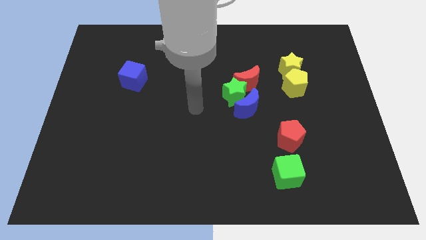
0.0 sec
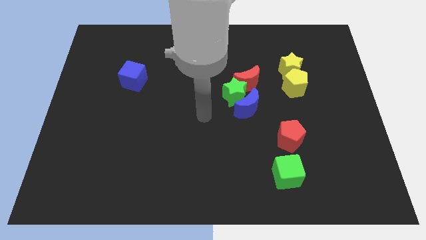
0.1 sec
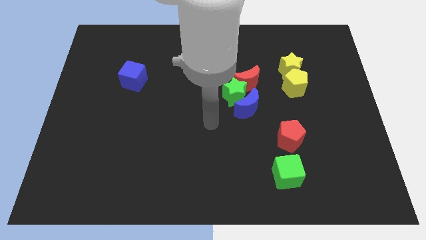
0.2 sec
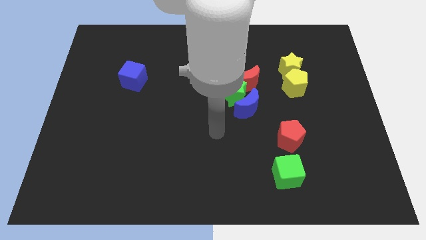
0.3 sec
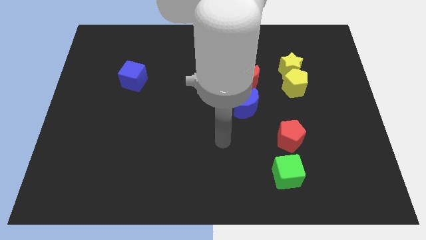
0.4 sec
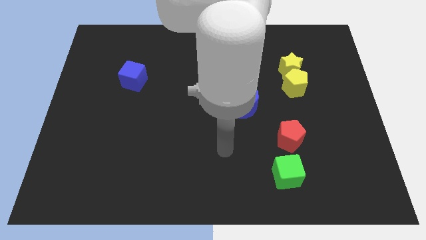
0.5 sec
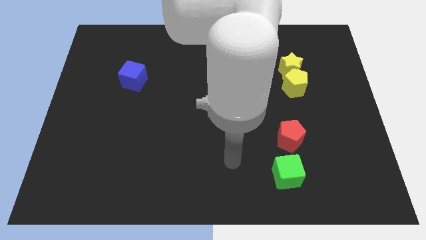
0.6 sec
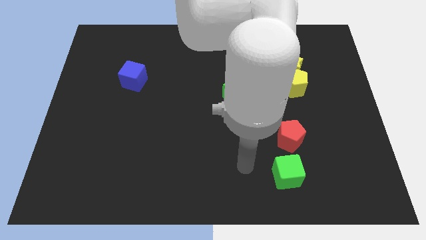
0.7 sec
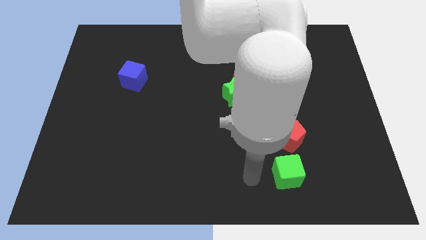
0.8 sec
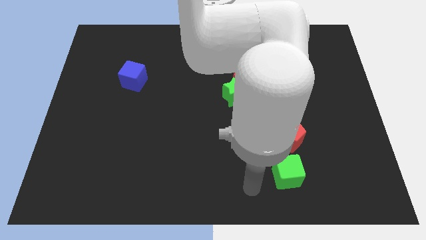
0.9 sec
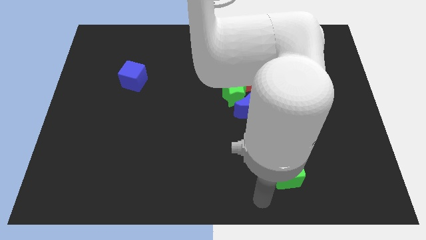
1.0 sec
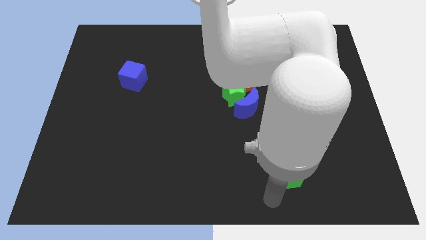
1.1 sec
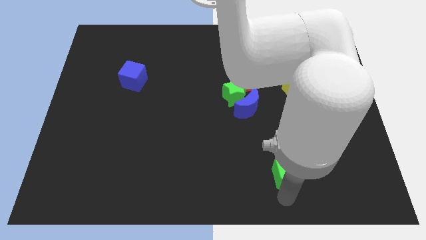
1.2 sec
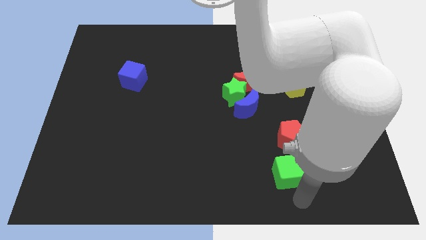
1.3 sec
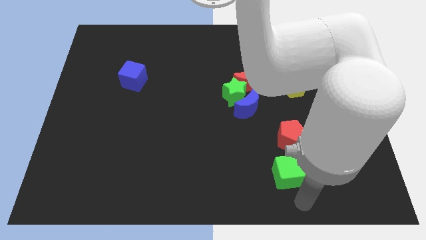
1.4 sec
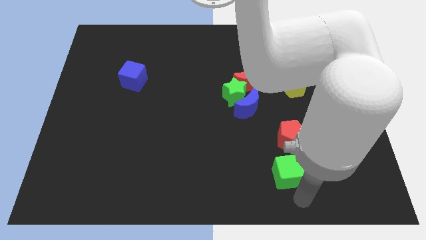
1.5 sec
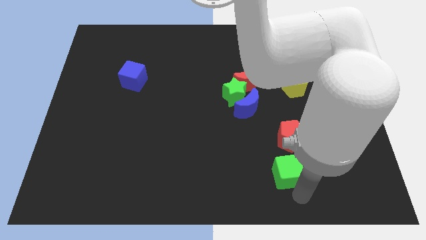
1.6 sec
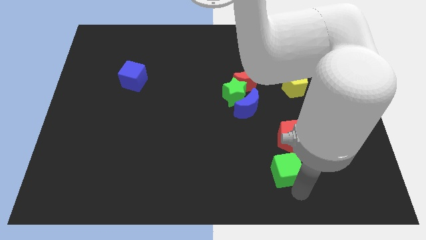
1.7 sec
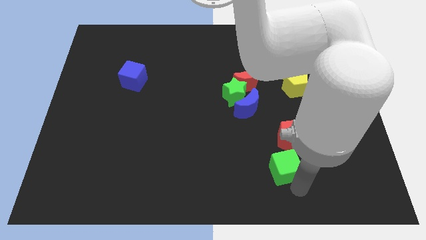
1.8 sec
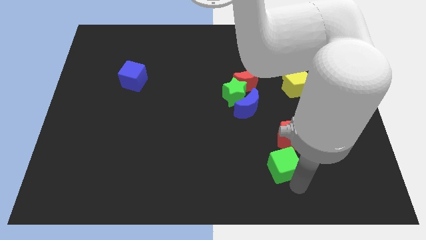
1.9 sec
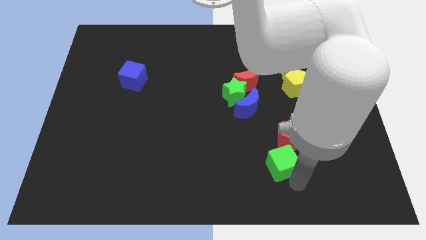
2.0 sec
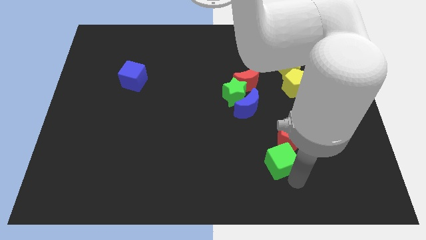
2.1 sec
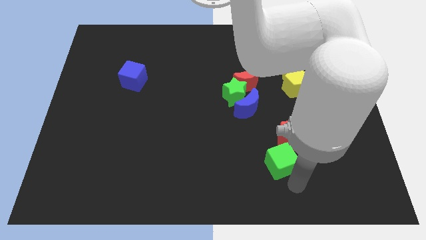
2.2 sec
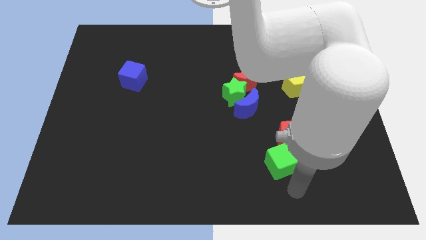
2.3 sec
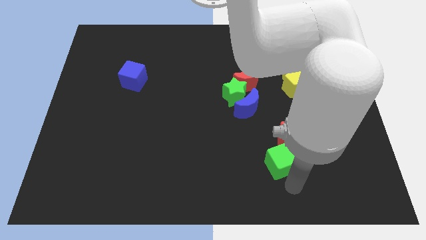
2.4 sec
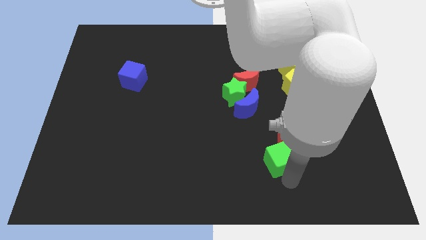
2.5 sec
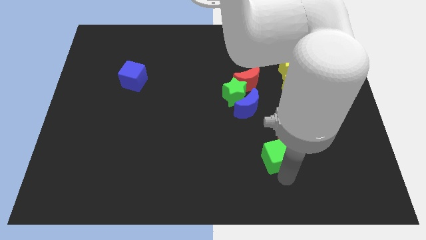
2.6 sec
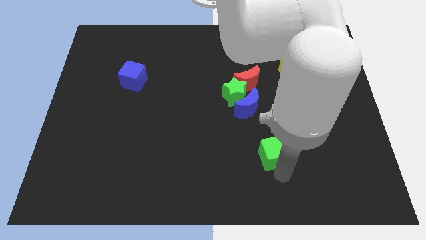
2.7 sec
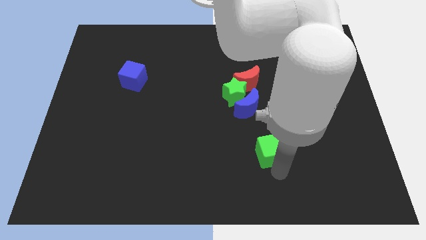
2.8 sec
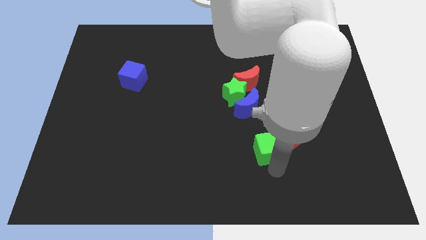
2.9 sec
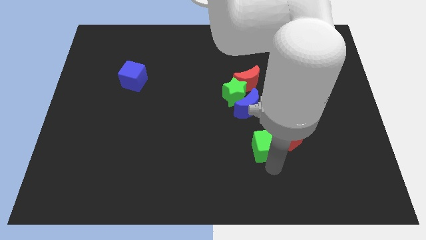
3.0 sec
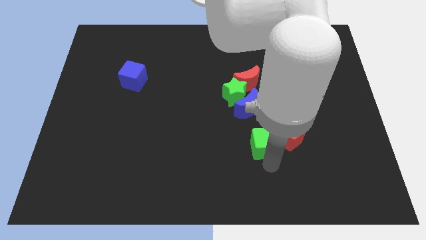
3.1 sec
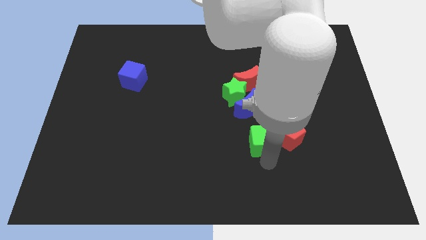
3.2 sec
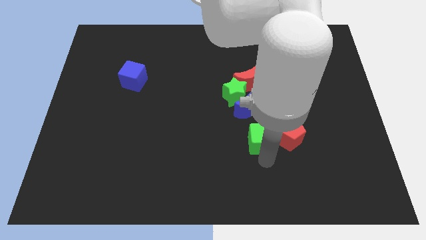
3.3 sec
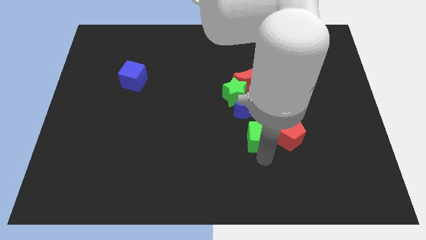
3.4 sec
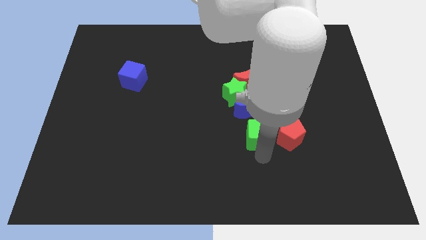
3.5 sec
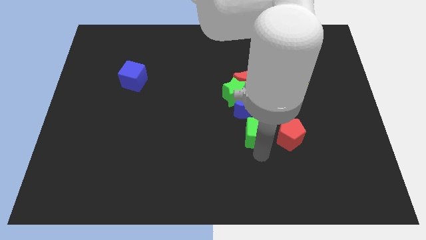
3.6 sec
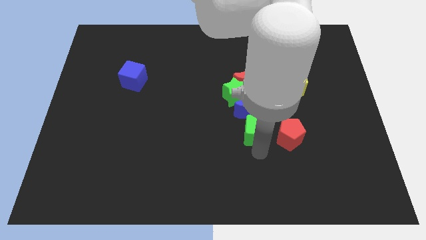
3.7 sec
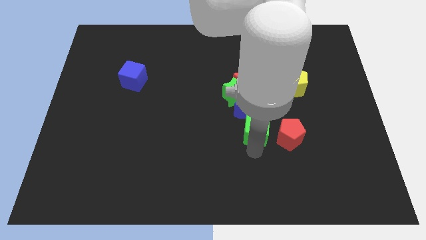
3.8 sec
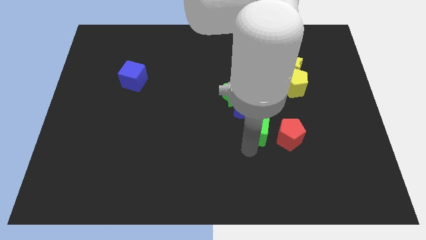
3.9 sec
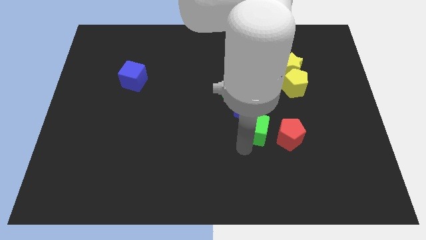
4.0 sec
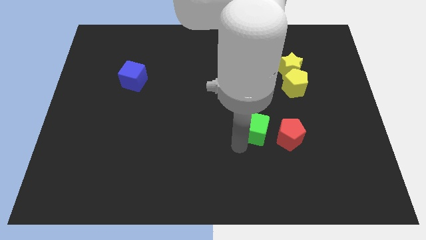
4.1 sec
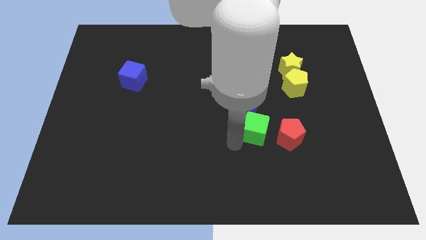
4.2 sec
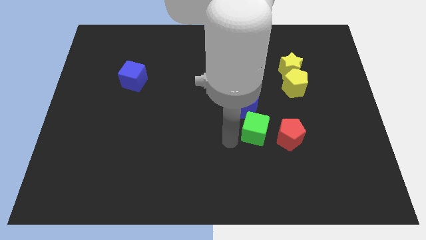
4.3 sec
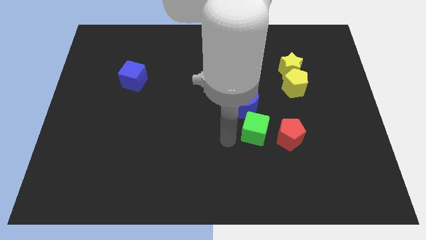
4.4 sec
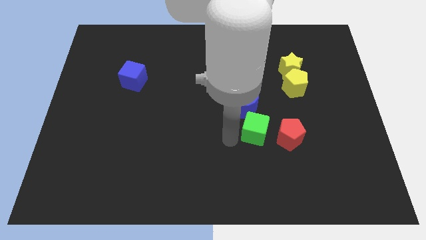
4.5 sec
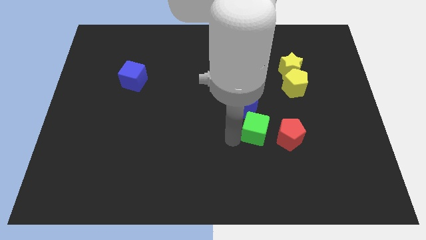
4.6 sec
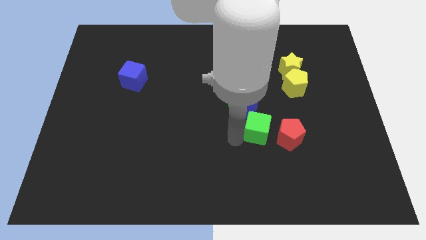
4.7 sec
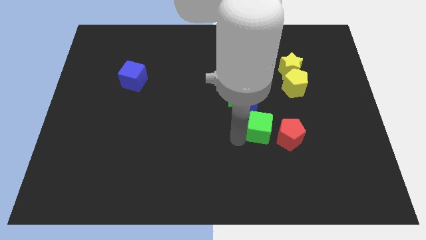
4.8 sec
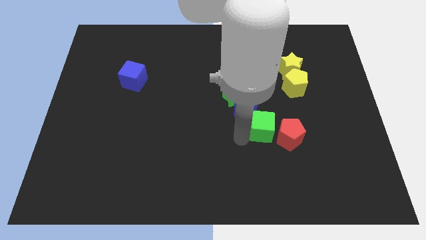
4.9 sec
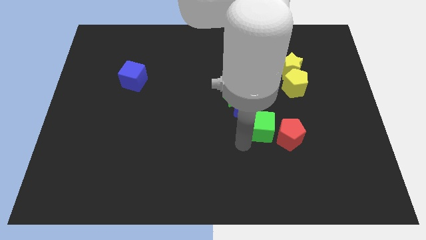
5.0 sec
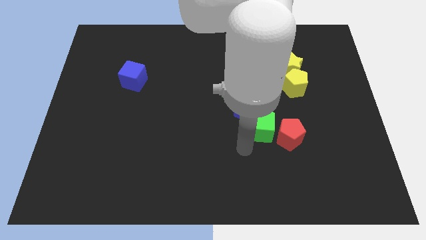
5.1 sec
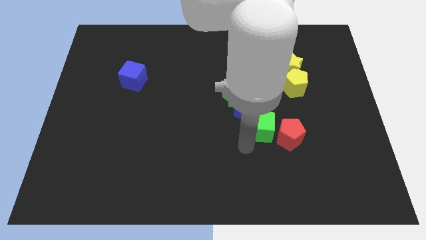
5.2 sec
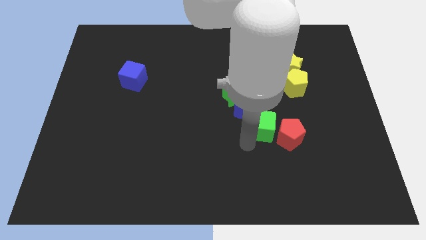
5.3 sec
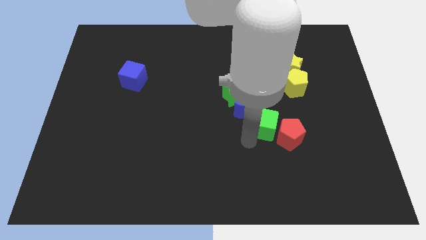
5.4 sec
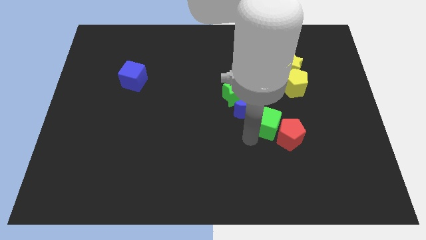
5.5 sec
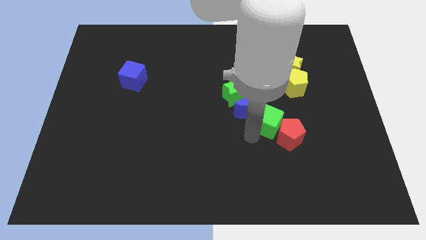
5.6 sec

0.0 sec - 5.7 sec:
push the green cube above the red pentagon

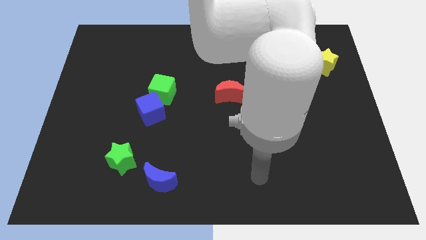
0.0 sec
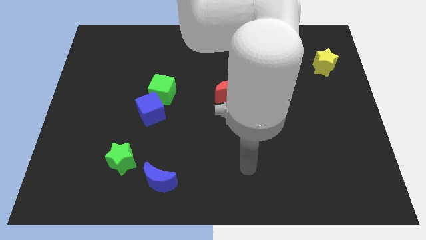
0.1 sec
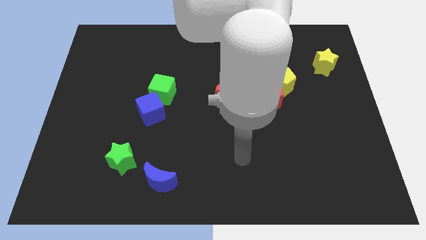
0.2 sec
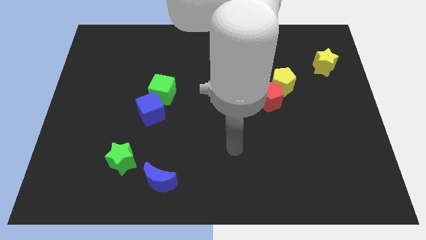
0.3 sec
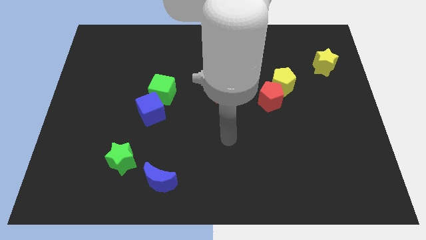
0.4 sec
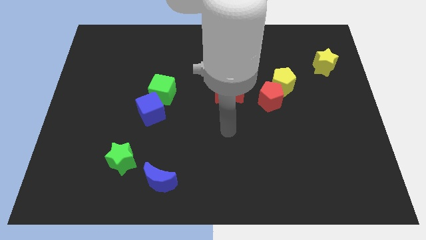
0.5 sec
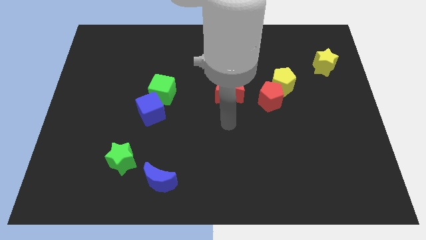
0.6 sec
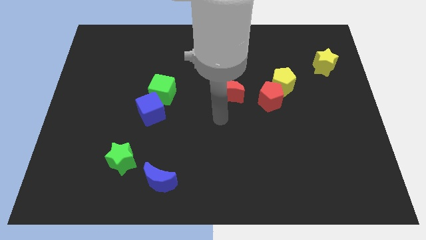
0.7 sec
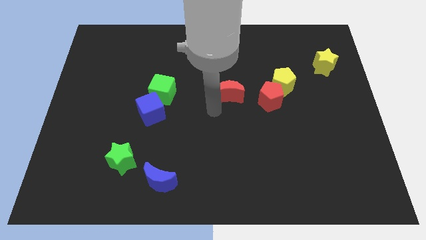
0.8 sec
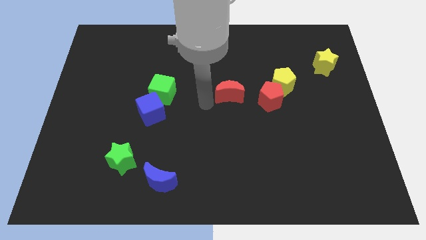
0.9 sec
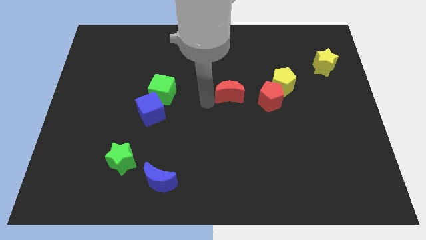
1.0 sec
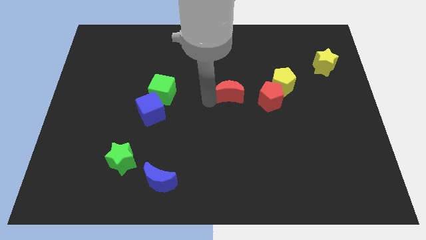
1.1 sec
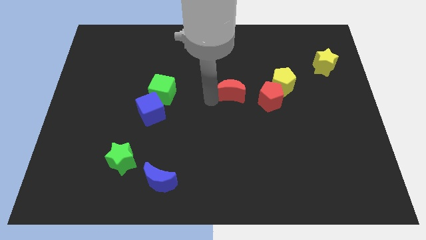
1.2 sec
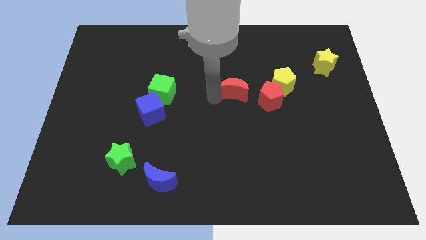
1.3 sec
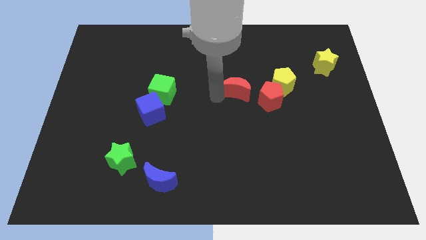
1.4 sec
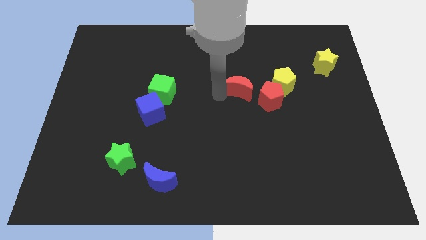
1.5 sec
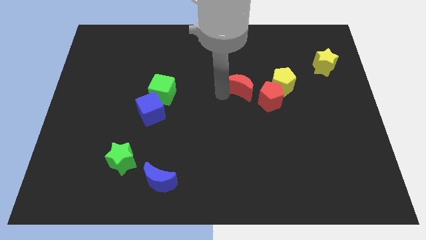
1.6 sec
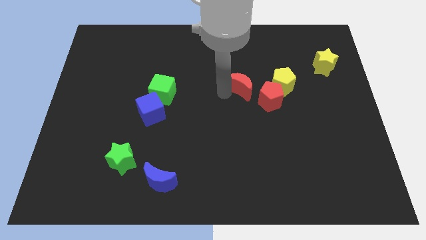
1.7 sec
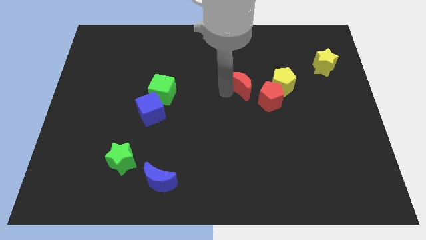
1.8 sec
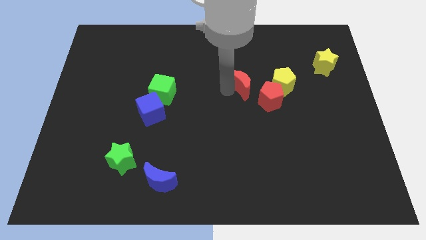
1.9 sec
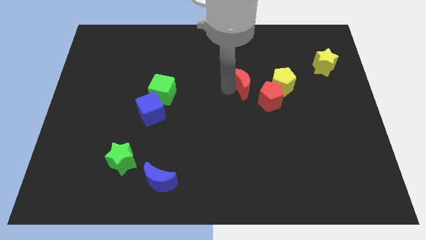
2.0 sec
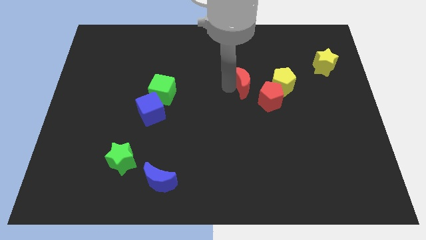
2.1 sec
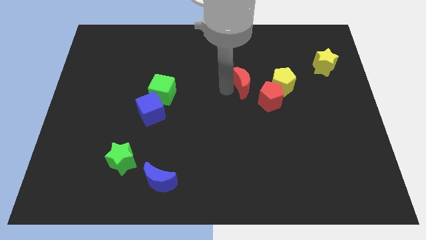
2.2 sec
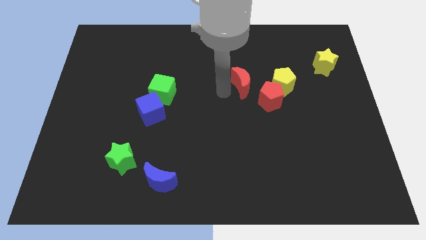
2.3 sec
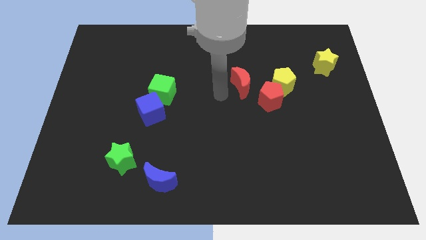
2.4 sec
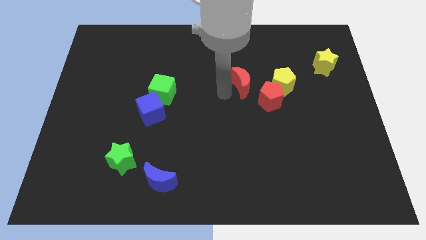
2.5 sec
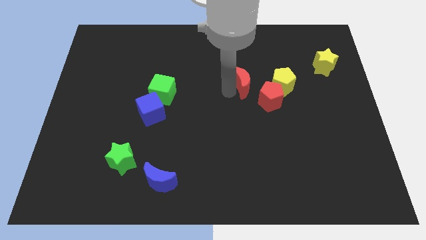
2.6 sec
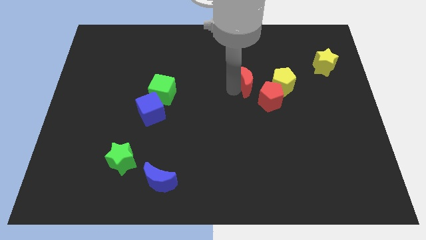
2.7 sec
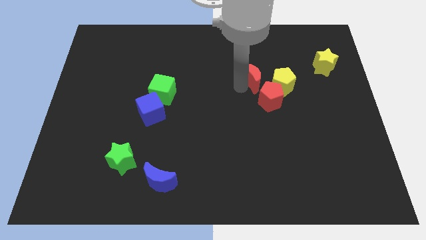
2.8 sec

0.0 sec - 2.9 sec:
push the red moon above the red pentagon
